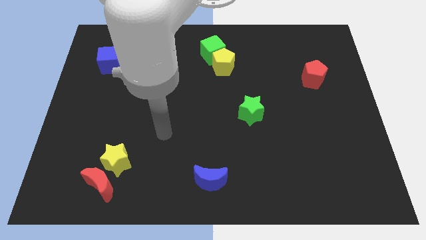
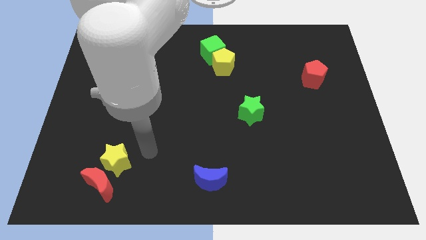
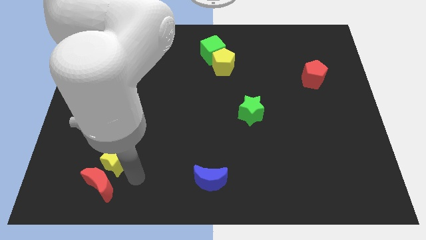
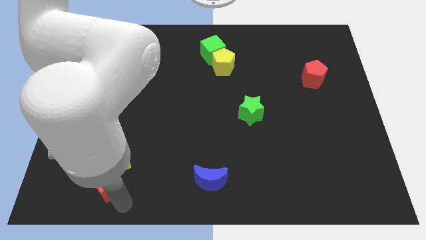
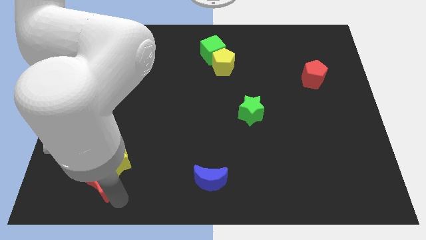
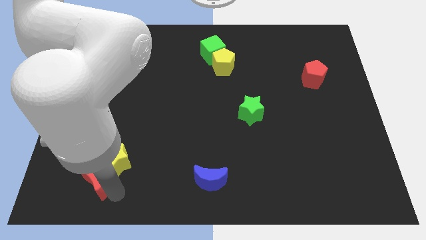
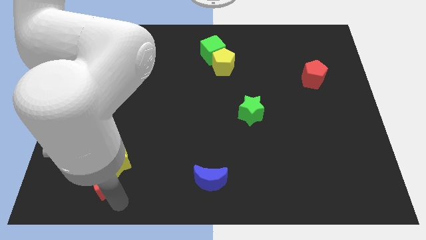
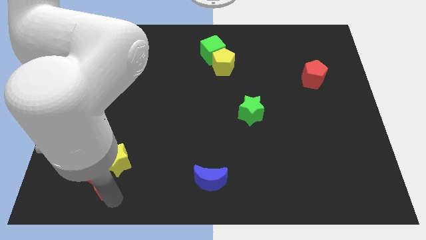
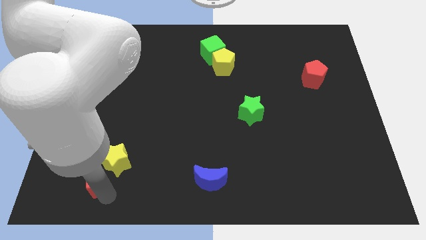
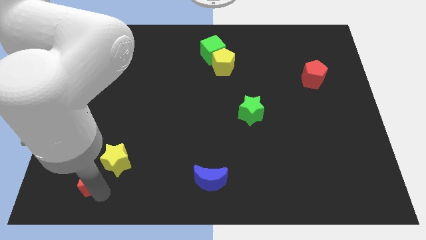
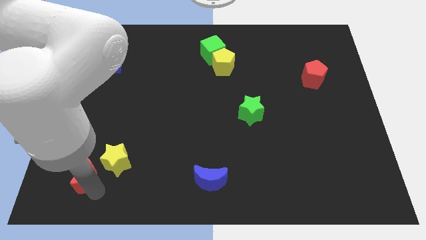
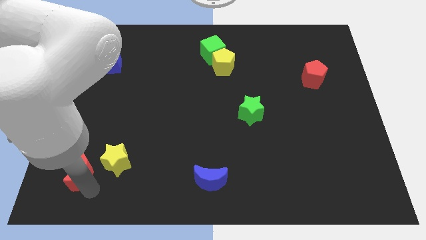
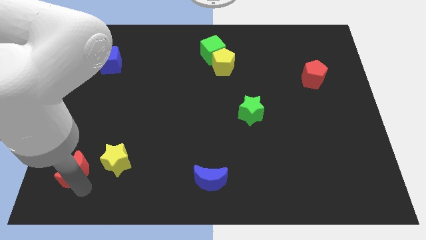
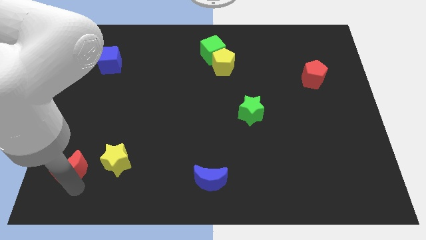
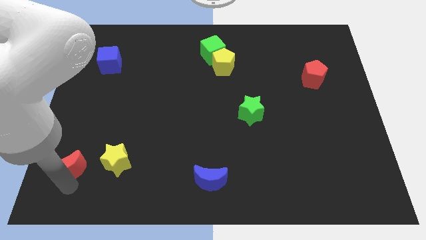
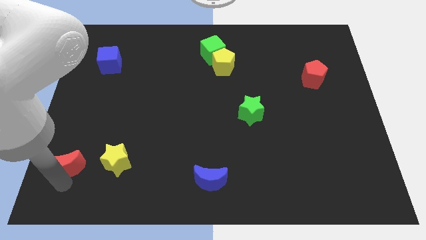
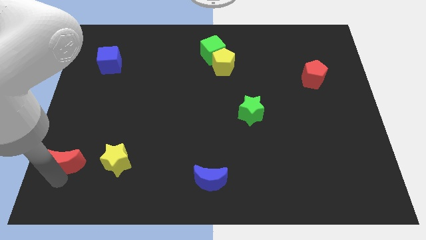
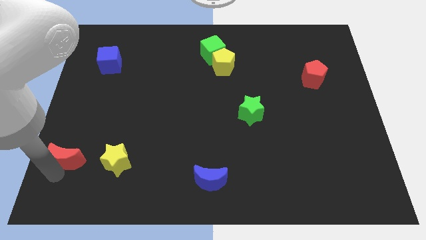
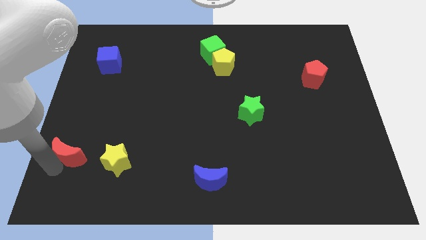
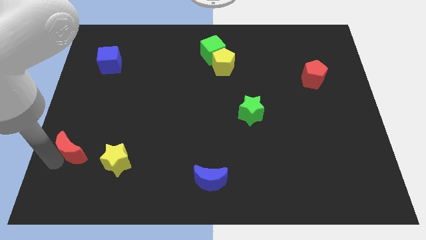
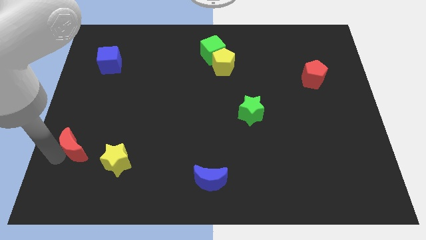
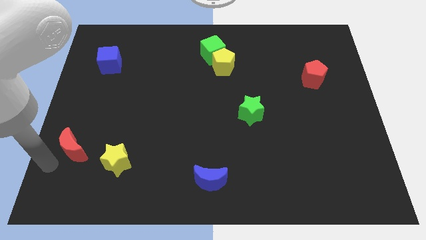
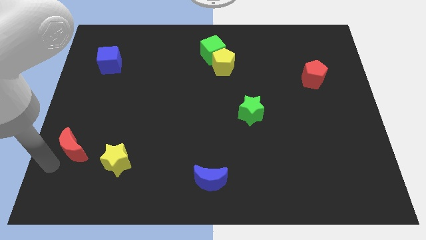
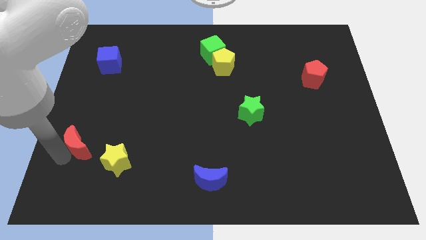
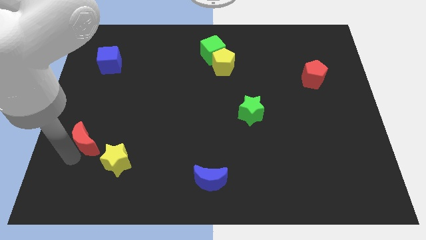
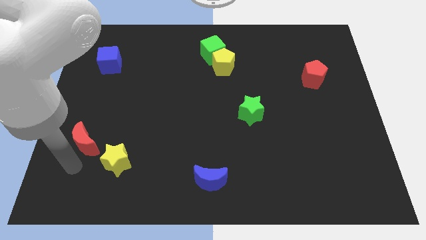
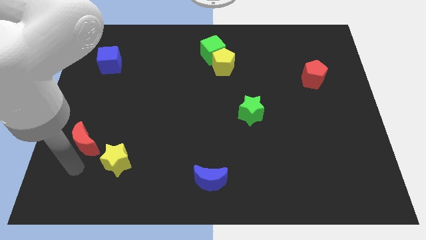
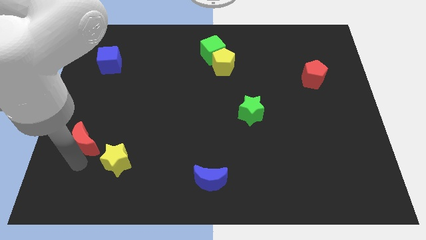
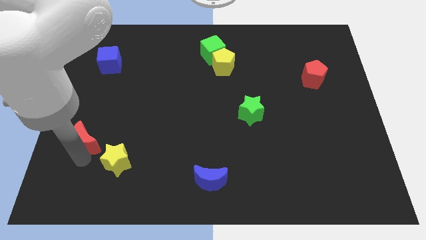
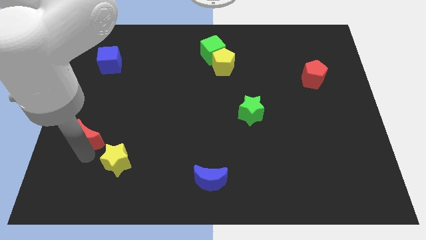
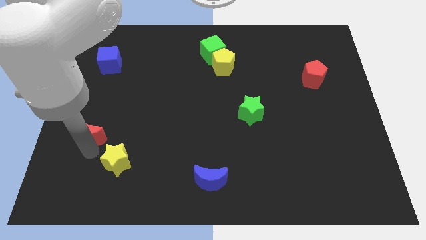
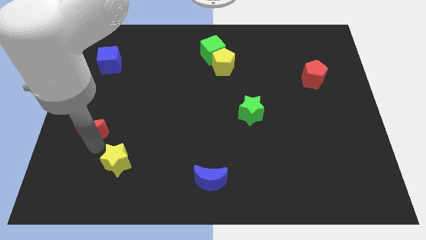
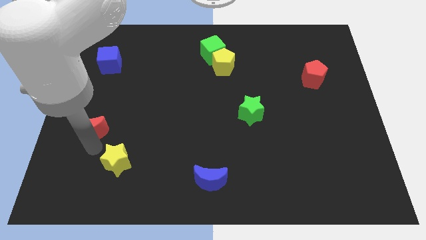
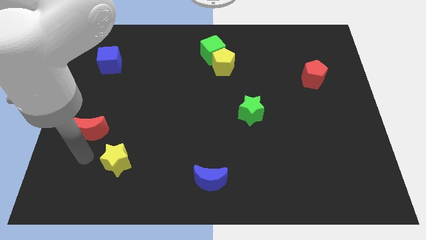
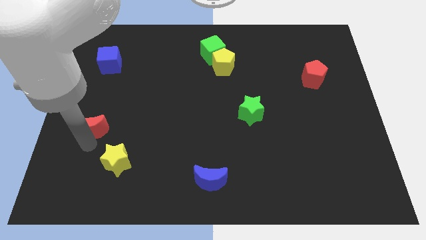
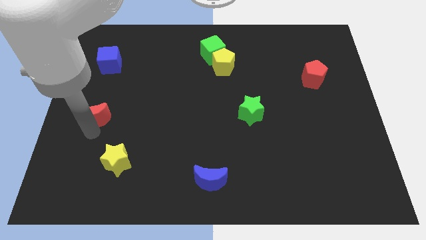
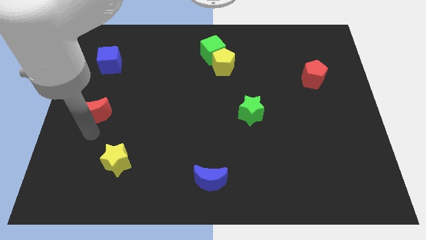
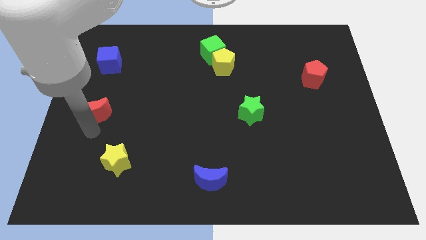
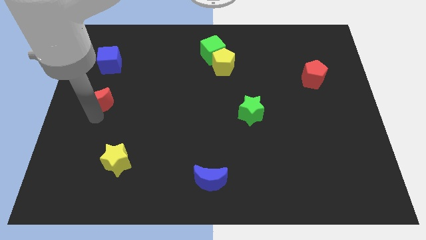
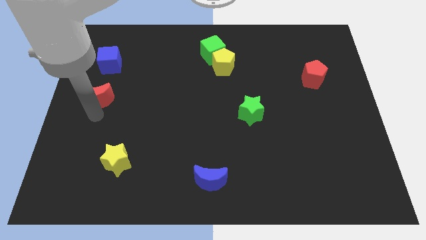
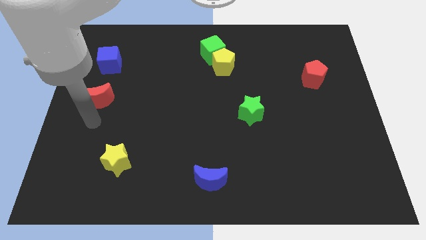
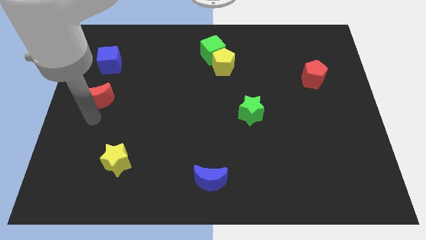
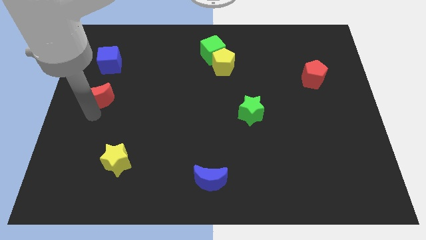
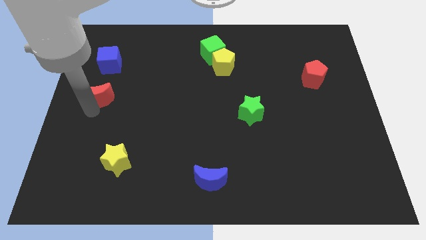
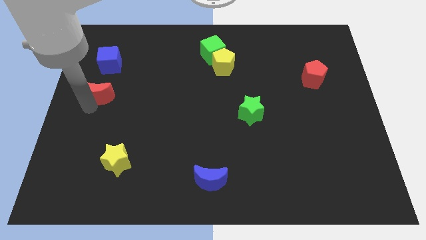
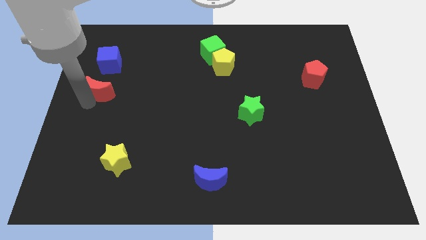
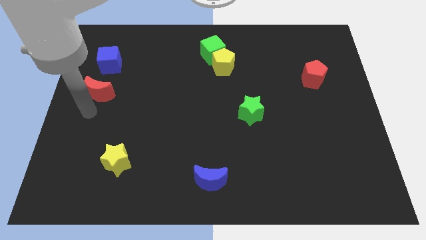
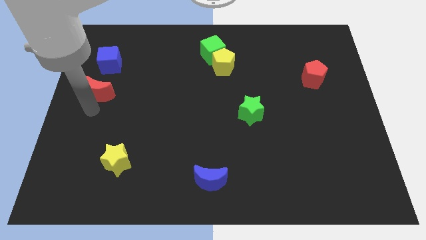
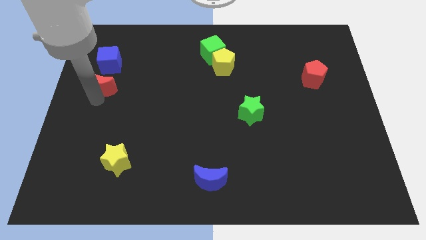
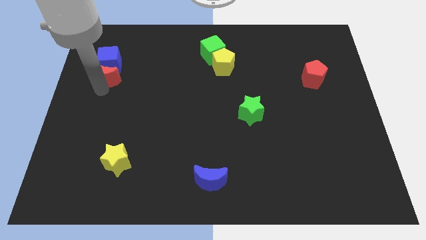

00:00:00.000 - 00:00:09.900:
move the red moon to the blue cube

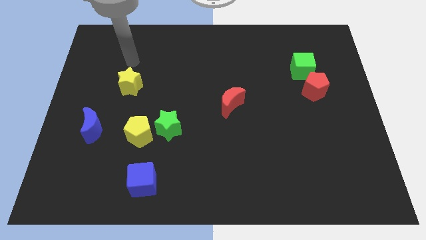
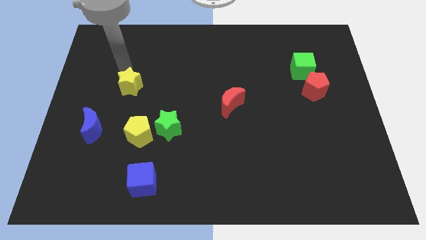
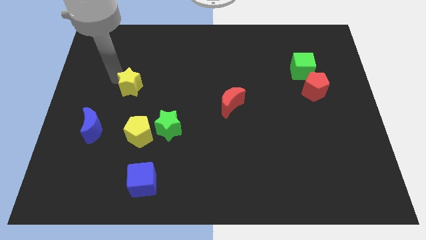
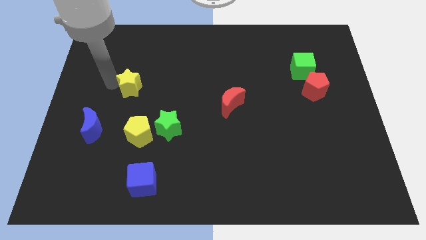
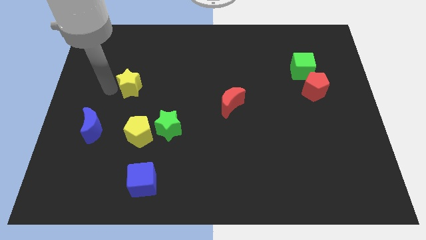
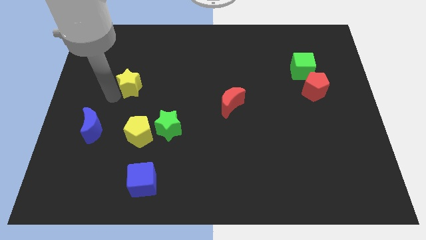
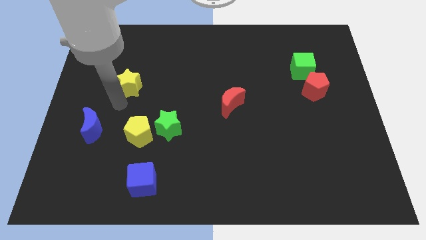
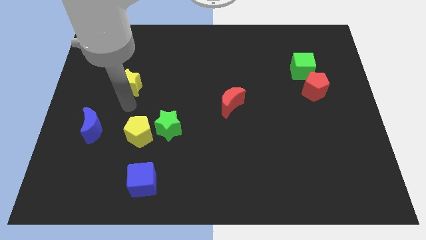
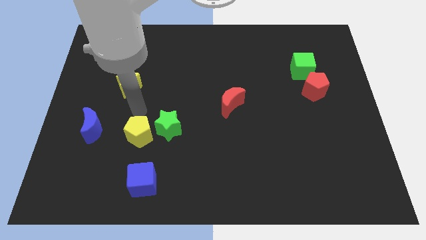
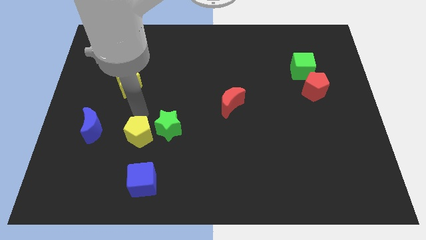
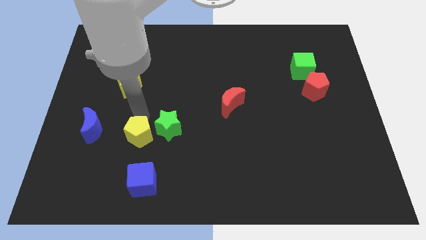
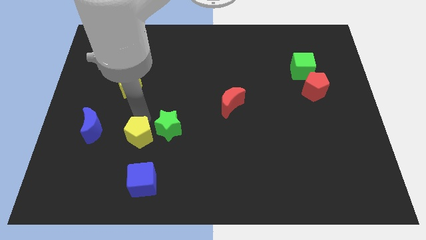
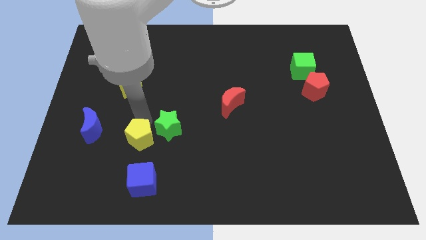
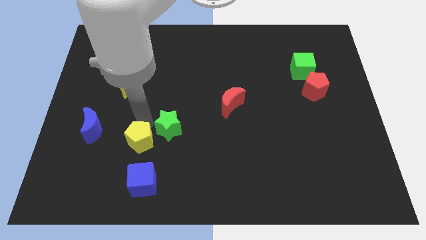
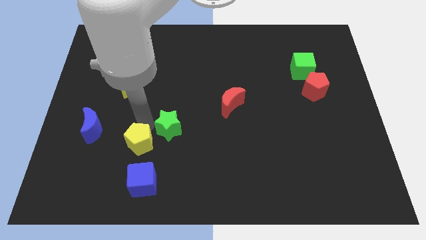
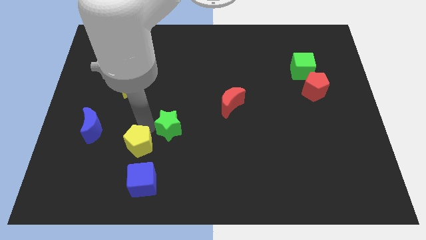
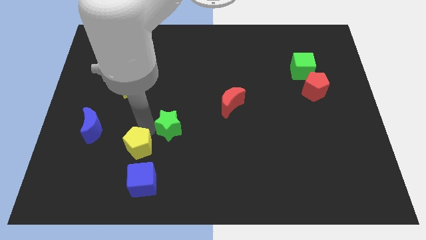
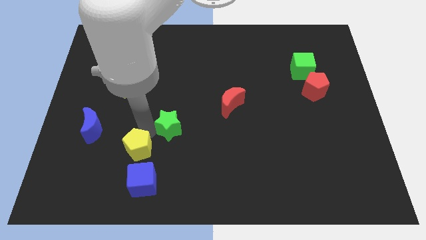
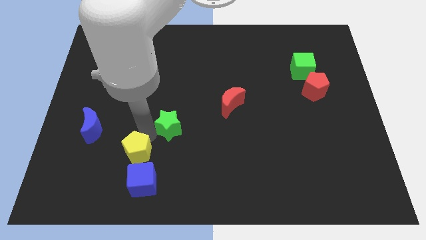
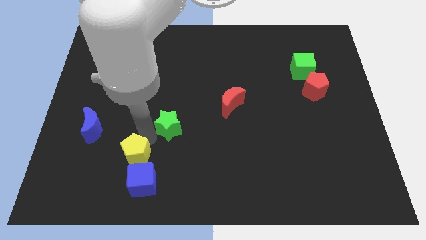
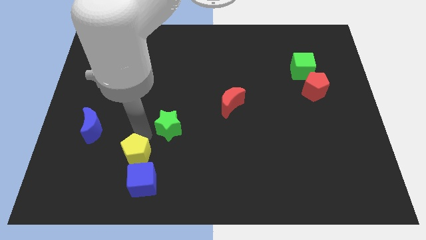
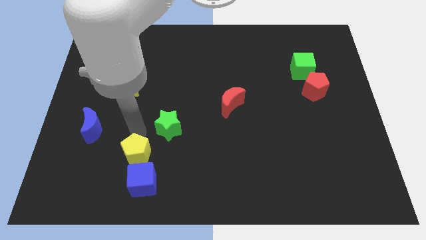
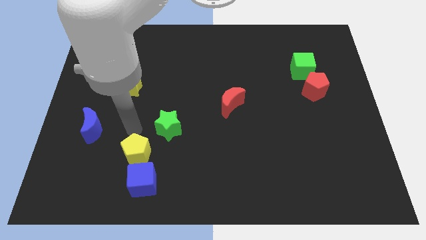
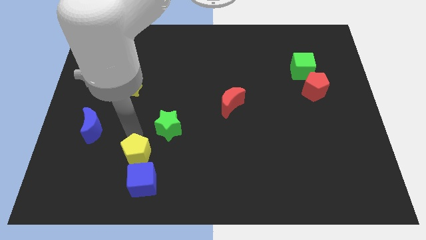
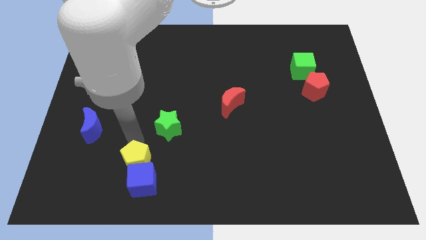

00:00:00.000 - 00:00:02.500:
move the yellow pentagon towards the blue cube

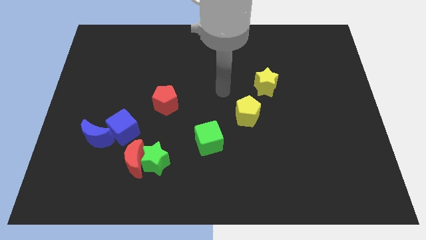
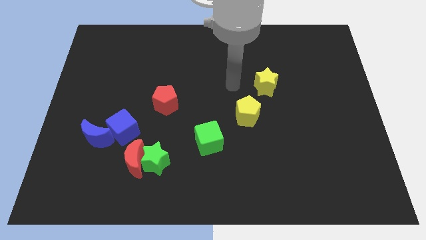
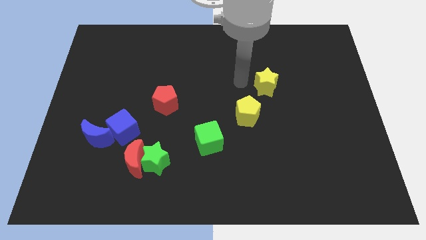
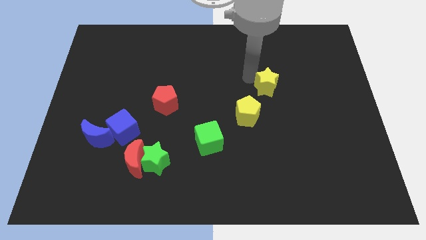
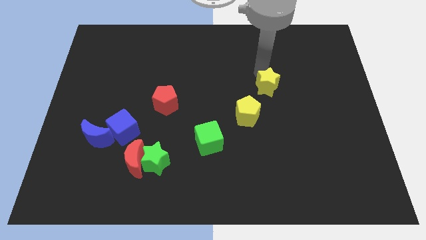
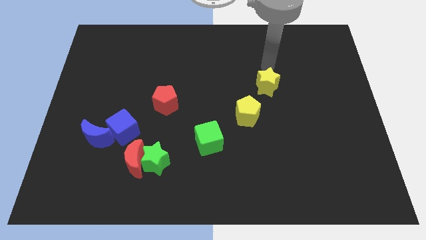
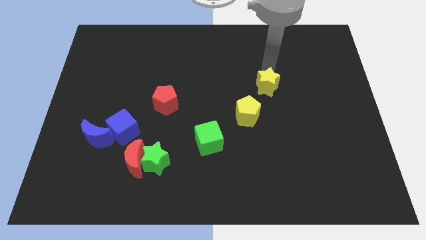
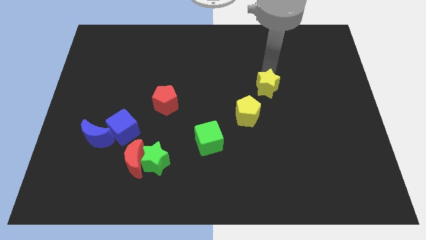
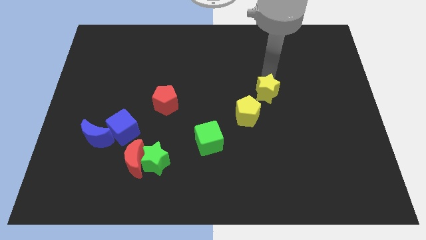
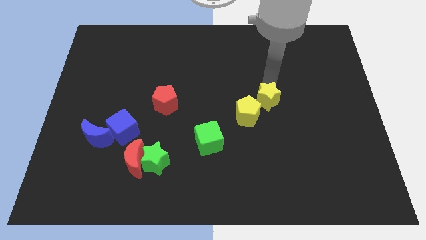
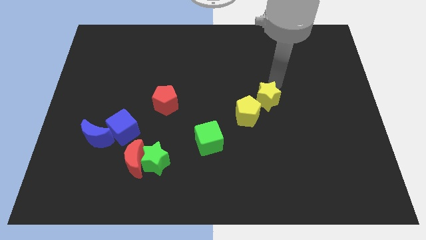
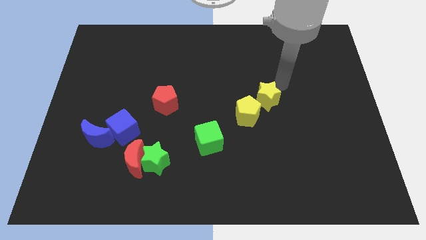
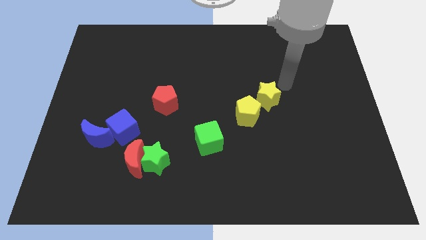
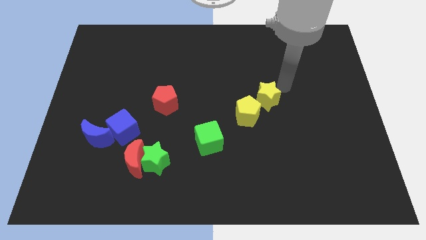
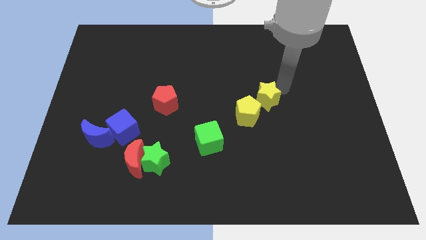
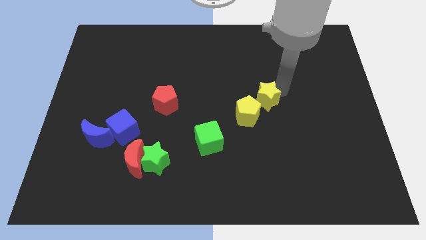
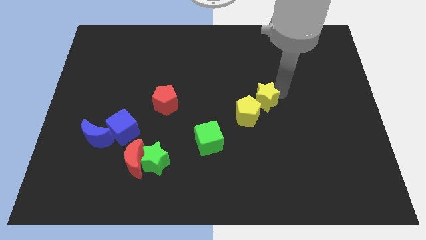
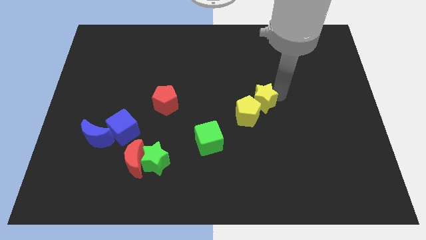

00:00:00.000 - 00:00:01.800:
slide the yellow star to the yellow pentagon
